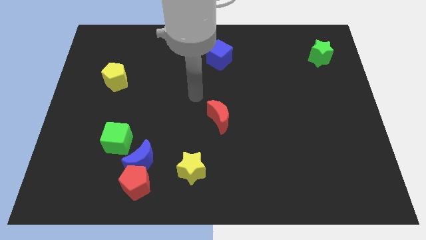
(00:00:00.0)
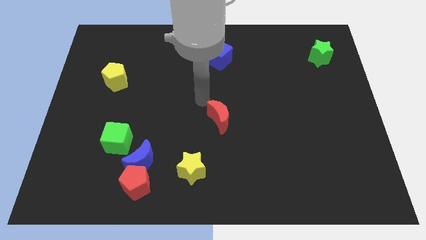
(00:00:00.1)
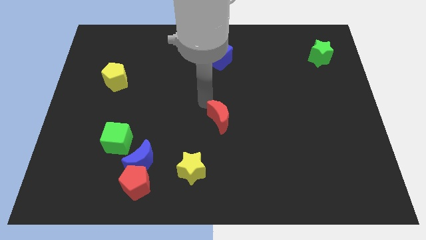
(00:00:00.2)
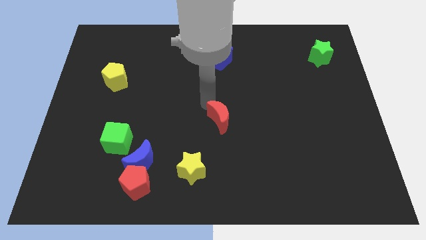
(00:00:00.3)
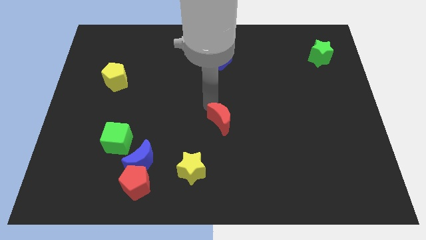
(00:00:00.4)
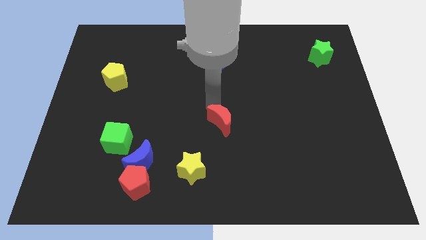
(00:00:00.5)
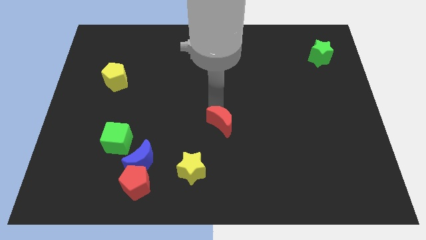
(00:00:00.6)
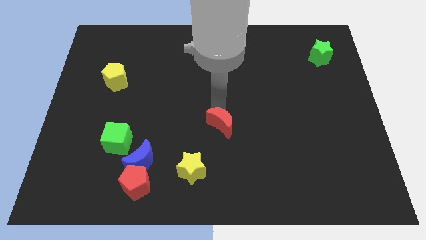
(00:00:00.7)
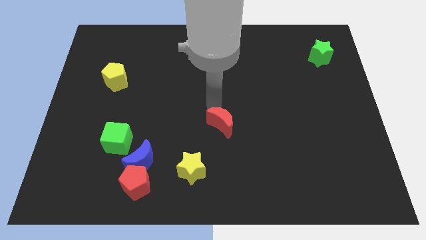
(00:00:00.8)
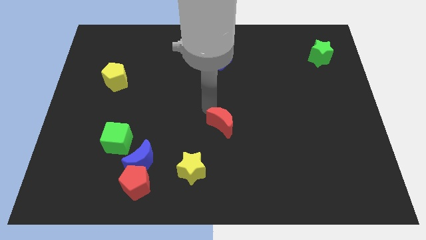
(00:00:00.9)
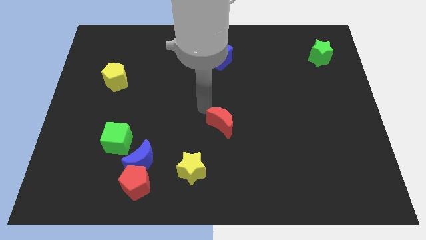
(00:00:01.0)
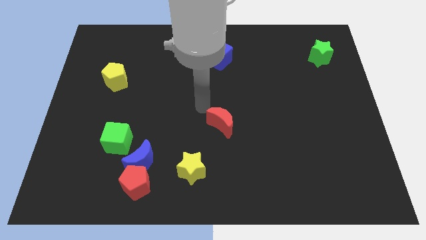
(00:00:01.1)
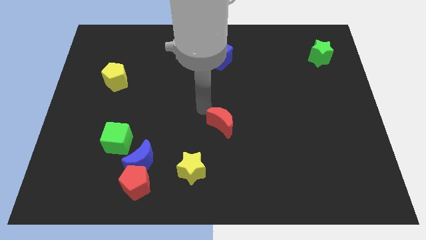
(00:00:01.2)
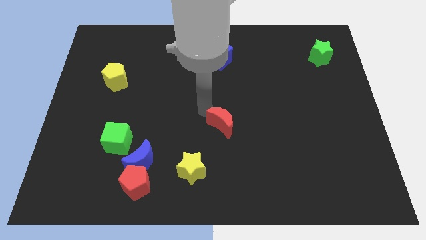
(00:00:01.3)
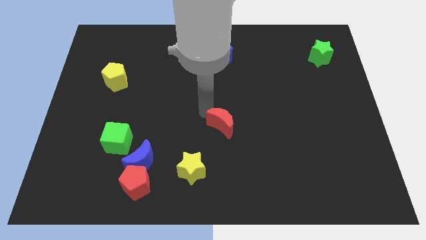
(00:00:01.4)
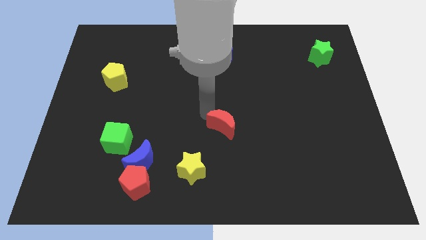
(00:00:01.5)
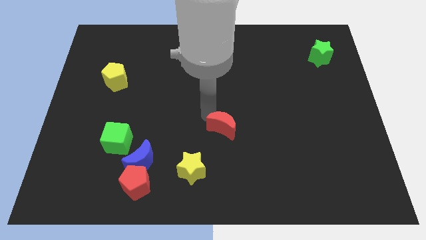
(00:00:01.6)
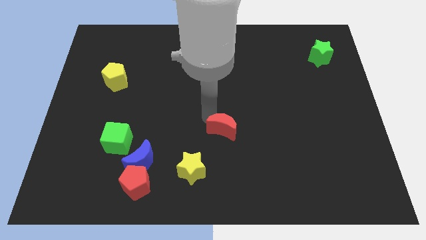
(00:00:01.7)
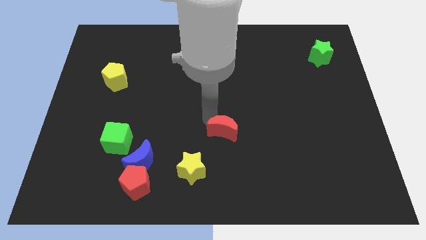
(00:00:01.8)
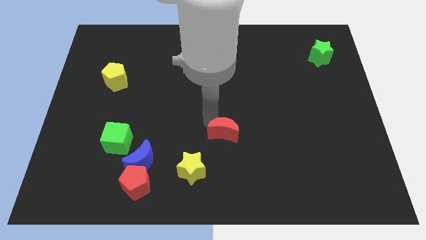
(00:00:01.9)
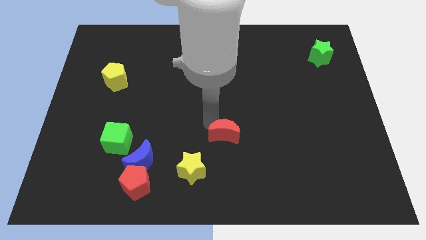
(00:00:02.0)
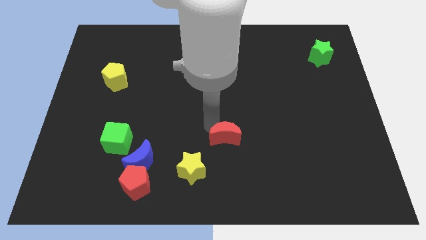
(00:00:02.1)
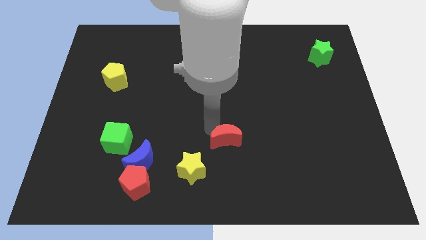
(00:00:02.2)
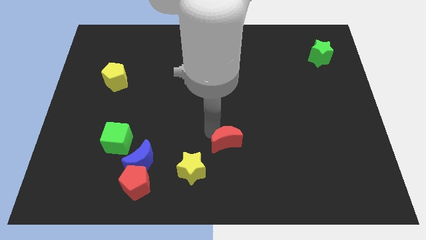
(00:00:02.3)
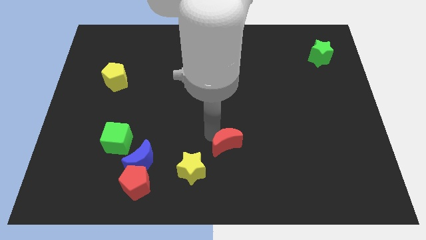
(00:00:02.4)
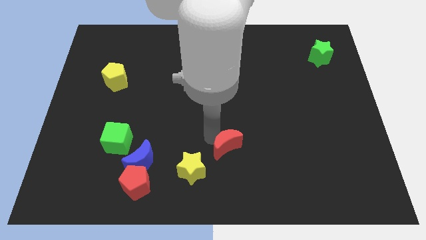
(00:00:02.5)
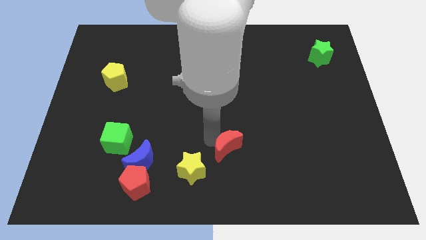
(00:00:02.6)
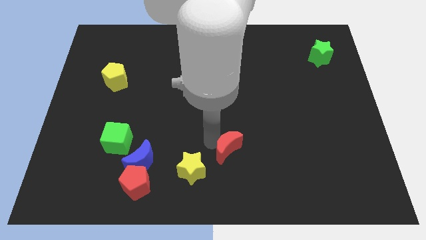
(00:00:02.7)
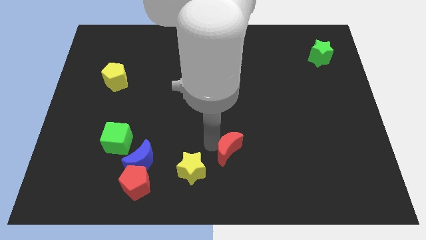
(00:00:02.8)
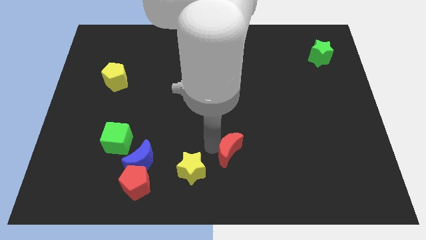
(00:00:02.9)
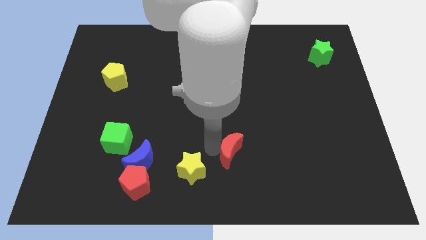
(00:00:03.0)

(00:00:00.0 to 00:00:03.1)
slide the red moon down and then right a bit

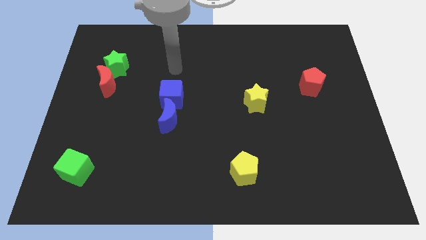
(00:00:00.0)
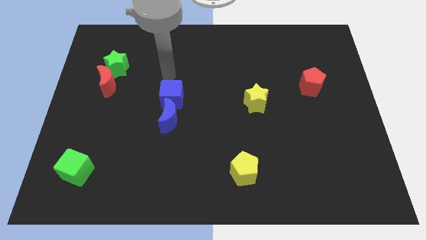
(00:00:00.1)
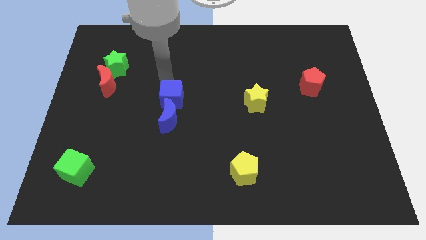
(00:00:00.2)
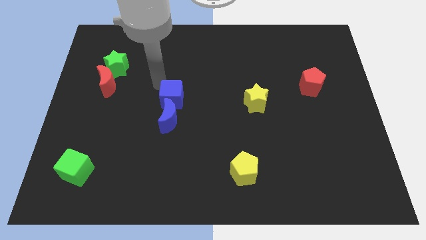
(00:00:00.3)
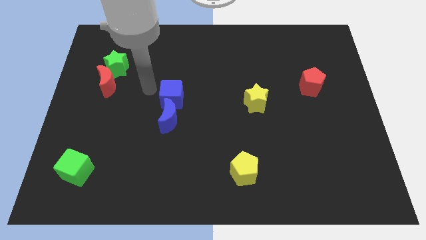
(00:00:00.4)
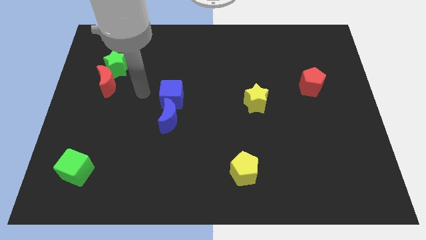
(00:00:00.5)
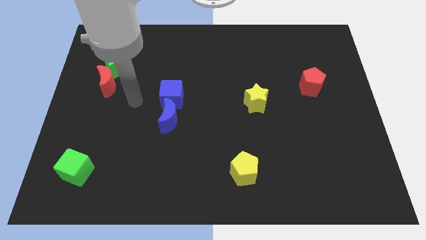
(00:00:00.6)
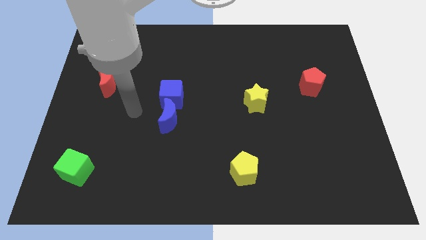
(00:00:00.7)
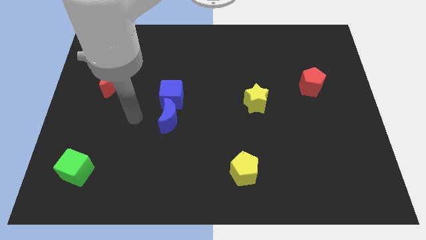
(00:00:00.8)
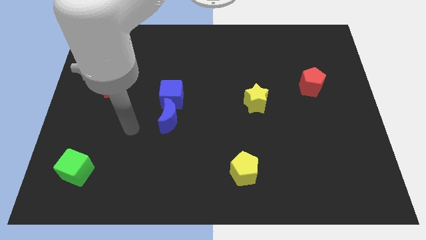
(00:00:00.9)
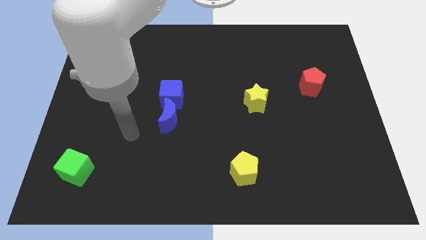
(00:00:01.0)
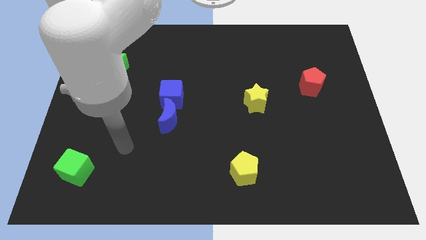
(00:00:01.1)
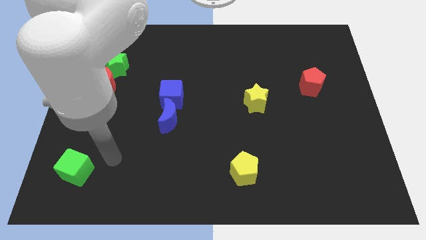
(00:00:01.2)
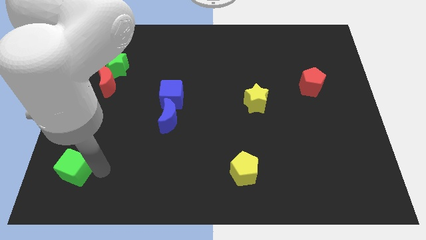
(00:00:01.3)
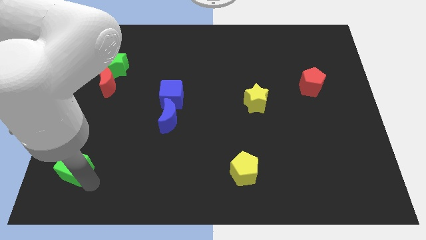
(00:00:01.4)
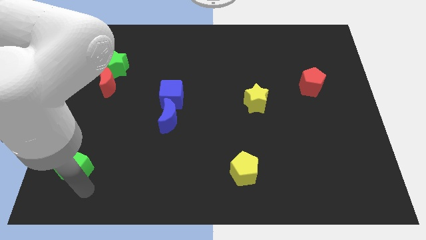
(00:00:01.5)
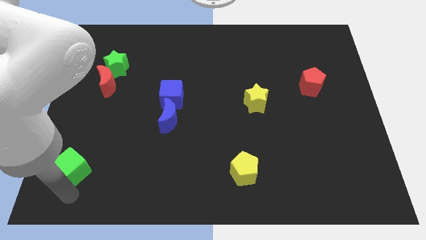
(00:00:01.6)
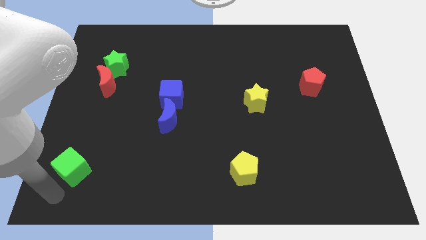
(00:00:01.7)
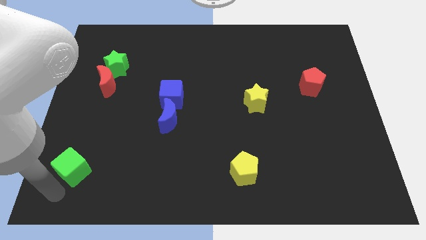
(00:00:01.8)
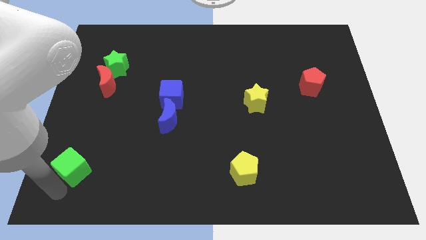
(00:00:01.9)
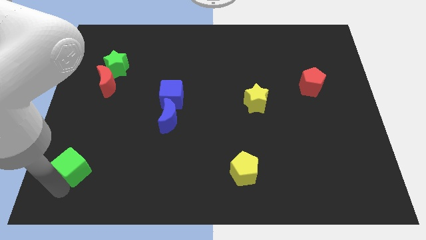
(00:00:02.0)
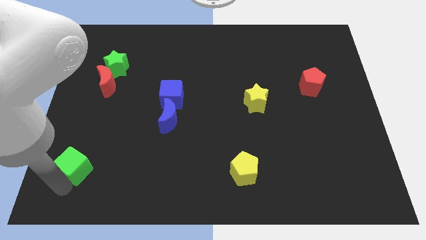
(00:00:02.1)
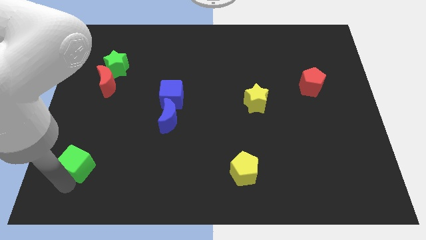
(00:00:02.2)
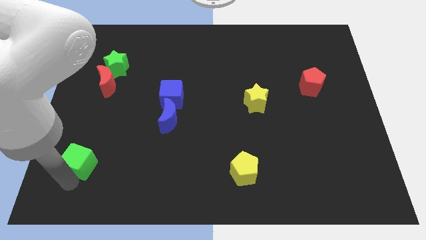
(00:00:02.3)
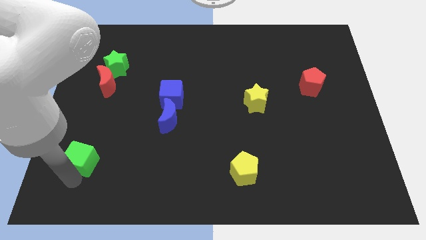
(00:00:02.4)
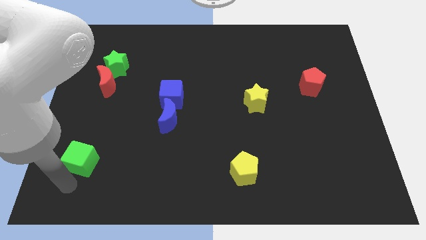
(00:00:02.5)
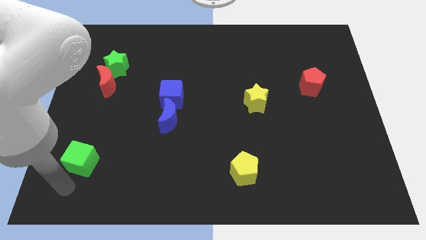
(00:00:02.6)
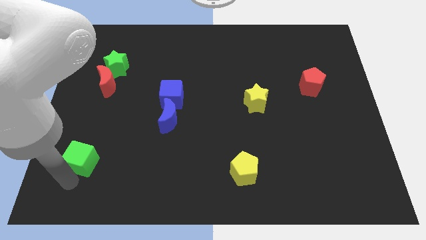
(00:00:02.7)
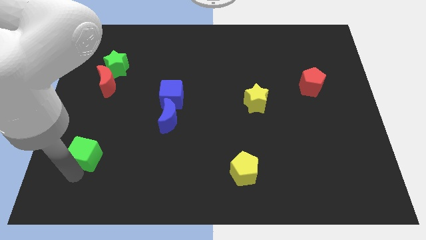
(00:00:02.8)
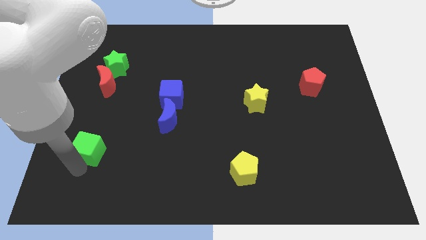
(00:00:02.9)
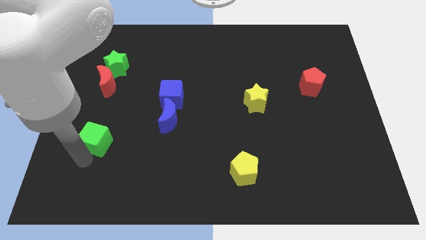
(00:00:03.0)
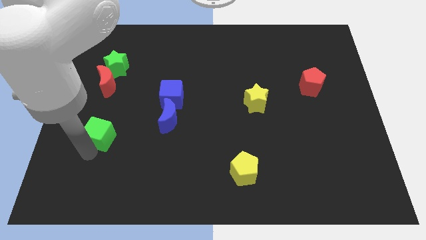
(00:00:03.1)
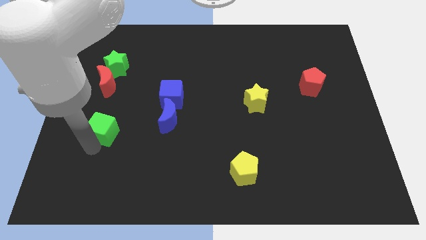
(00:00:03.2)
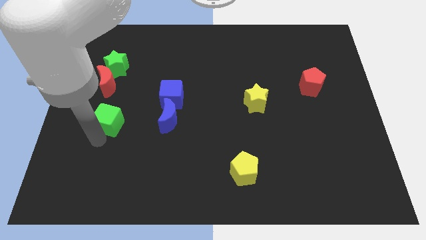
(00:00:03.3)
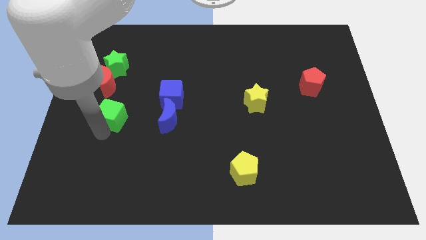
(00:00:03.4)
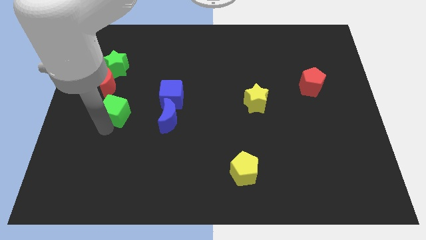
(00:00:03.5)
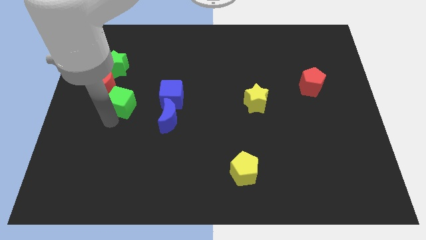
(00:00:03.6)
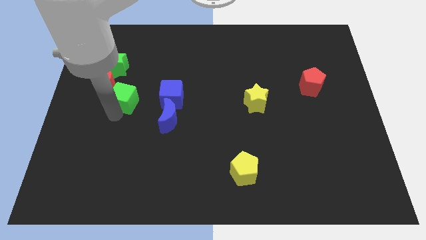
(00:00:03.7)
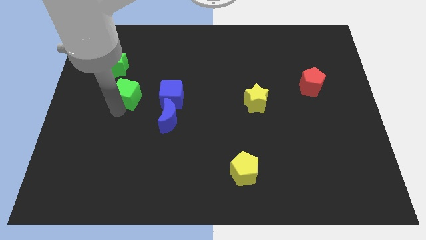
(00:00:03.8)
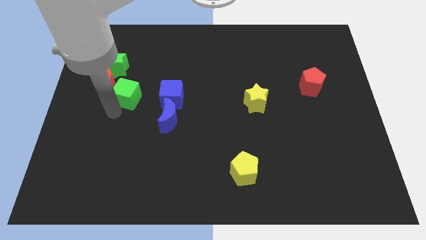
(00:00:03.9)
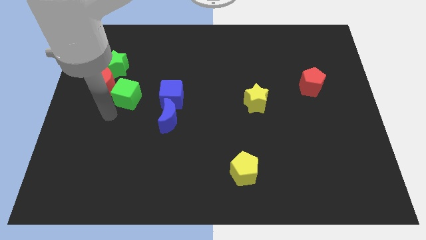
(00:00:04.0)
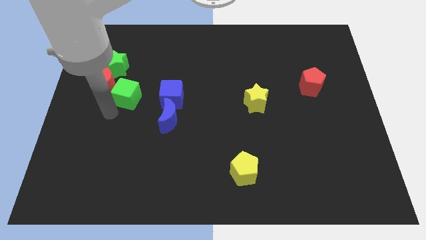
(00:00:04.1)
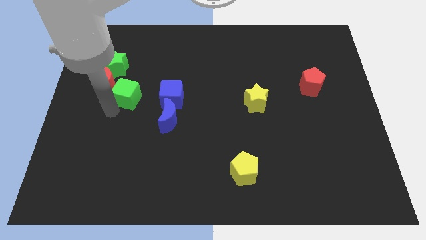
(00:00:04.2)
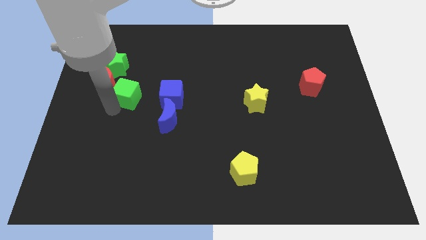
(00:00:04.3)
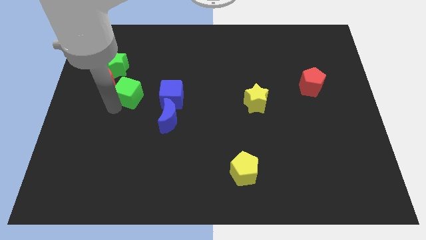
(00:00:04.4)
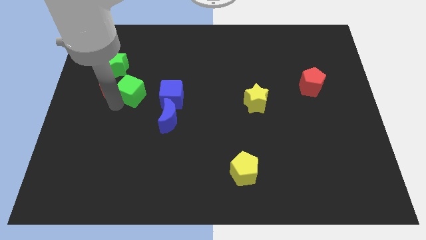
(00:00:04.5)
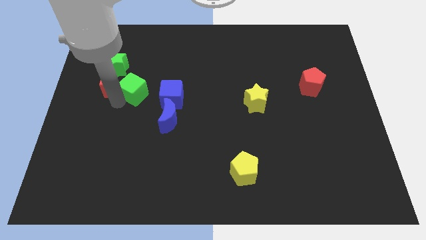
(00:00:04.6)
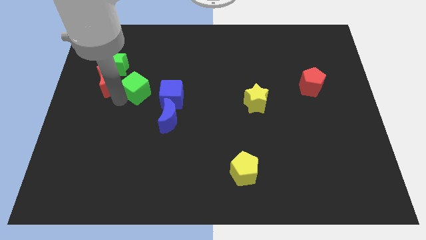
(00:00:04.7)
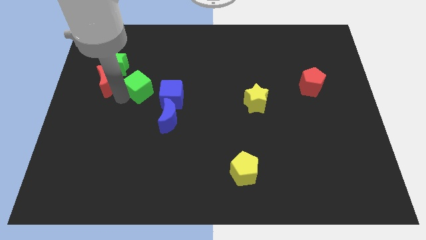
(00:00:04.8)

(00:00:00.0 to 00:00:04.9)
push the green cube up and then to the right
